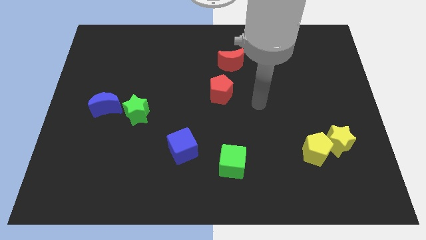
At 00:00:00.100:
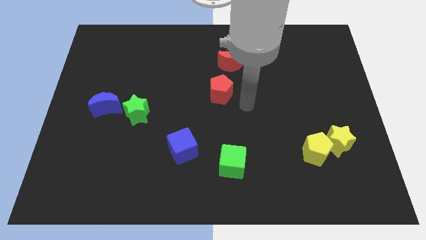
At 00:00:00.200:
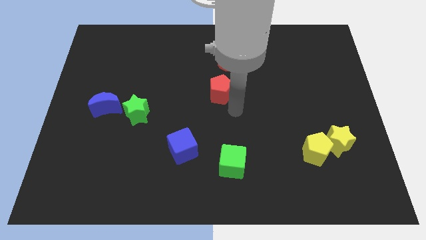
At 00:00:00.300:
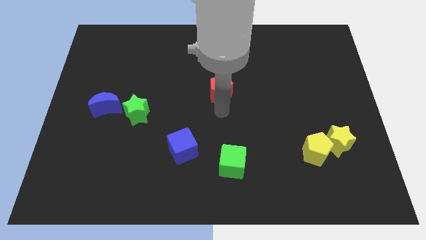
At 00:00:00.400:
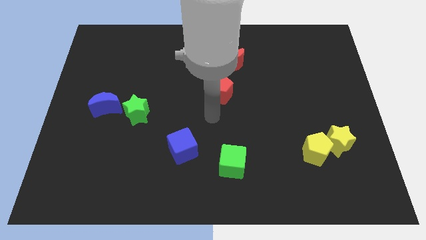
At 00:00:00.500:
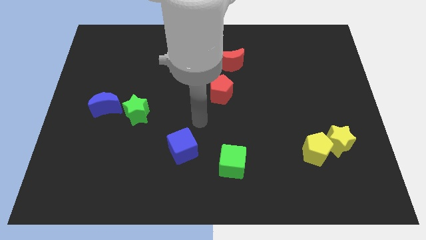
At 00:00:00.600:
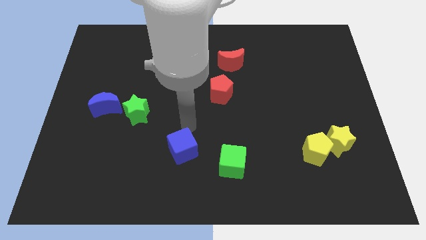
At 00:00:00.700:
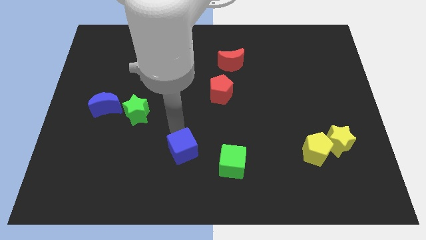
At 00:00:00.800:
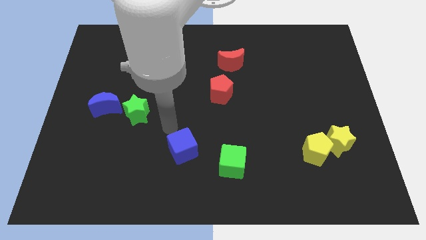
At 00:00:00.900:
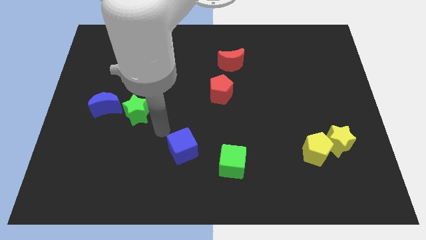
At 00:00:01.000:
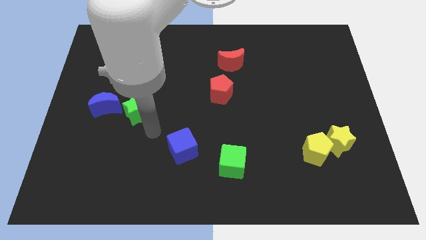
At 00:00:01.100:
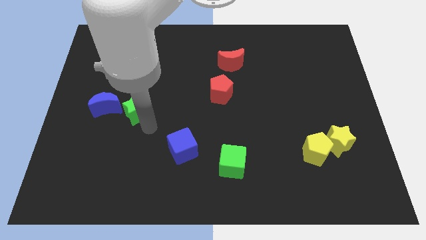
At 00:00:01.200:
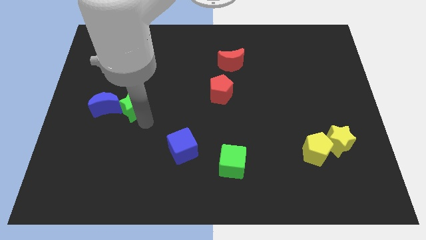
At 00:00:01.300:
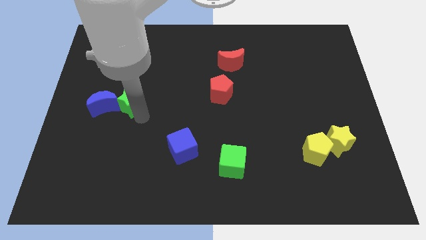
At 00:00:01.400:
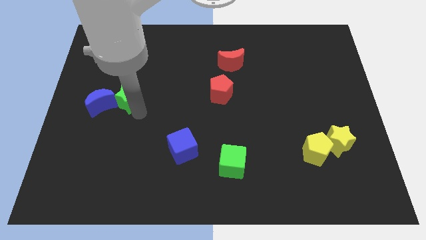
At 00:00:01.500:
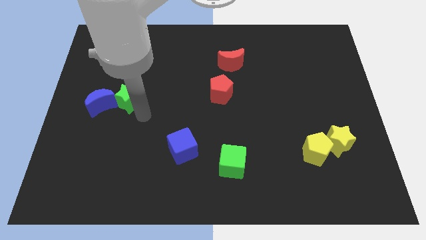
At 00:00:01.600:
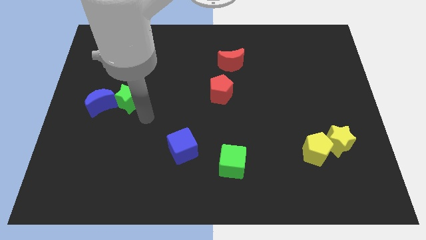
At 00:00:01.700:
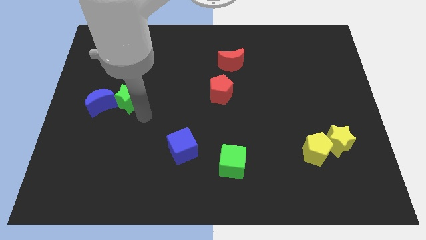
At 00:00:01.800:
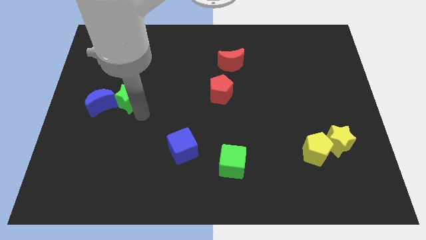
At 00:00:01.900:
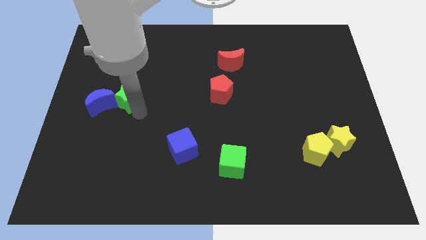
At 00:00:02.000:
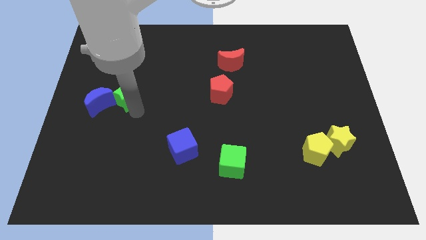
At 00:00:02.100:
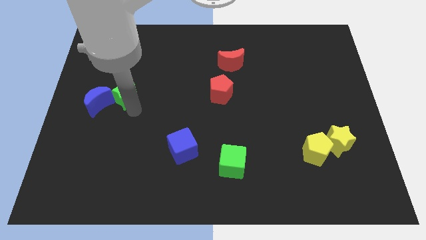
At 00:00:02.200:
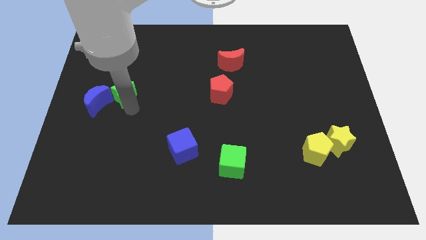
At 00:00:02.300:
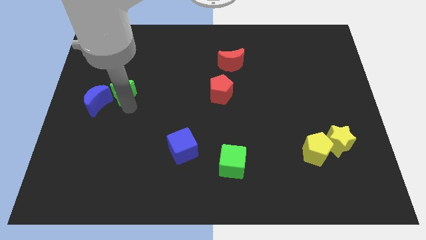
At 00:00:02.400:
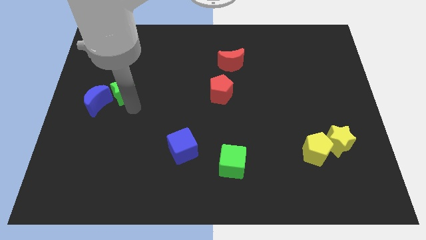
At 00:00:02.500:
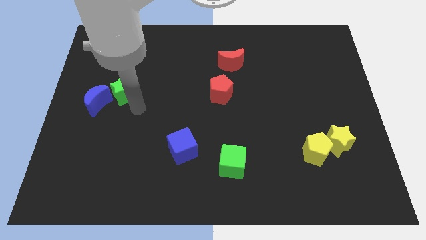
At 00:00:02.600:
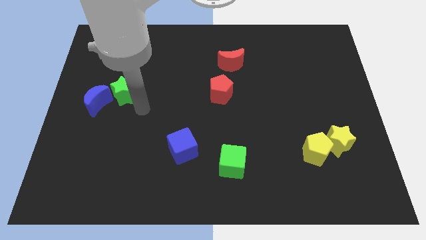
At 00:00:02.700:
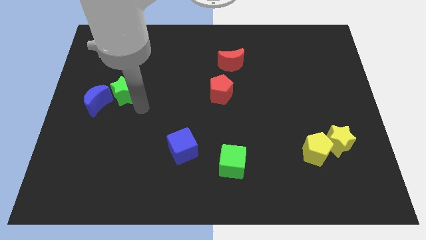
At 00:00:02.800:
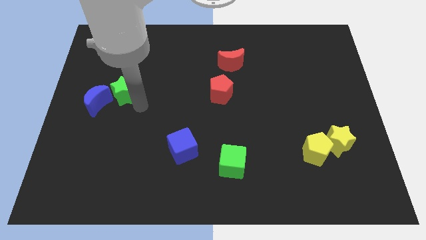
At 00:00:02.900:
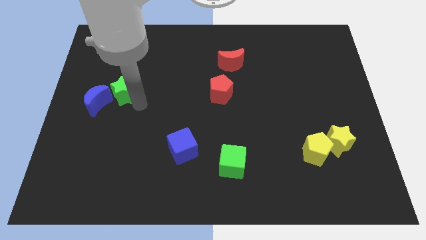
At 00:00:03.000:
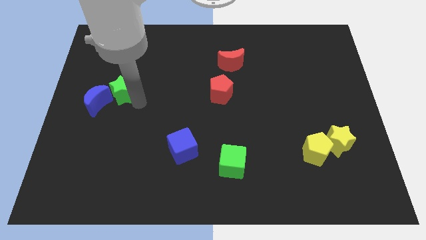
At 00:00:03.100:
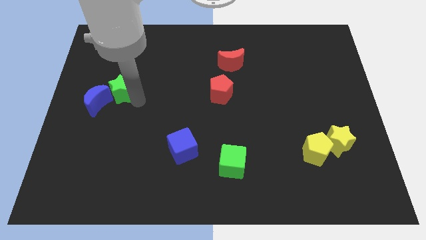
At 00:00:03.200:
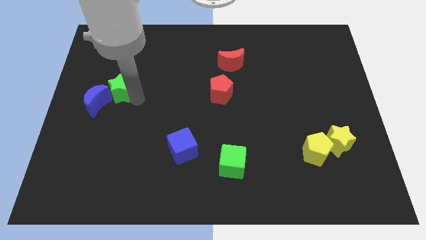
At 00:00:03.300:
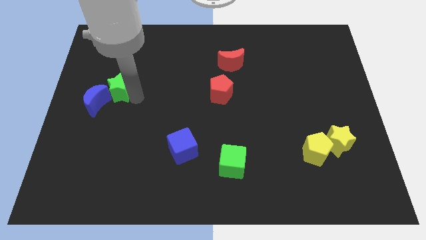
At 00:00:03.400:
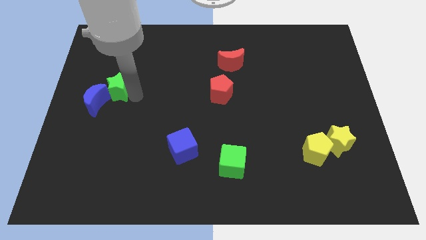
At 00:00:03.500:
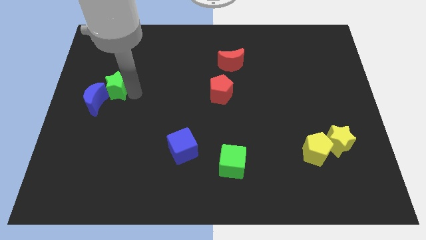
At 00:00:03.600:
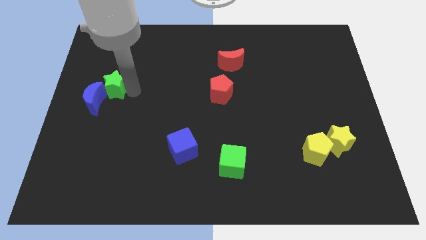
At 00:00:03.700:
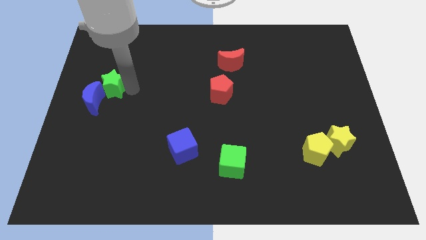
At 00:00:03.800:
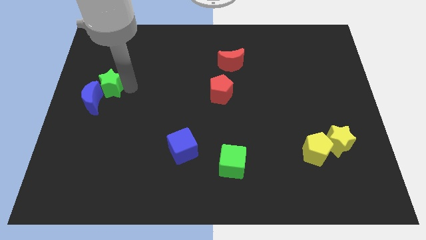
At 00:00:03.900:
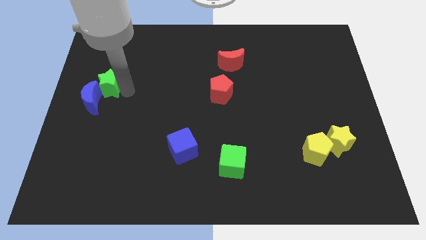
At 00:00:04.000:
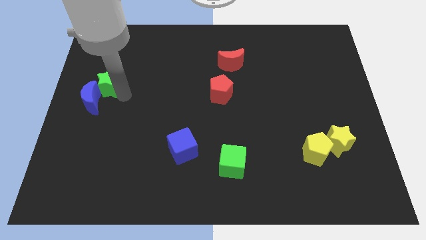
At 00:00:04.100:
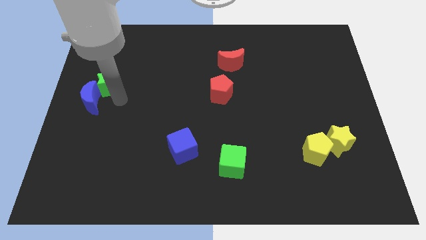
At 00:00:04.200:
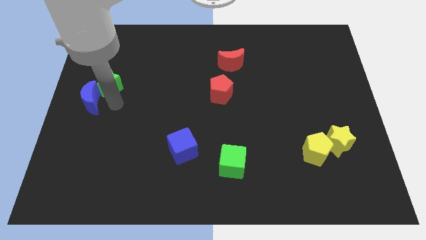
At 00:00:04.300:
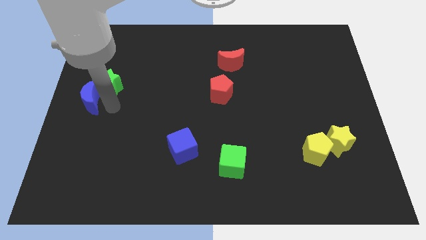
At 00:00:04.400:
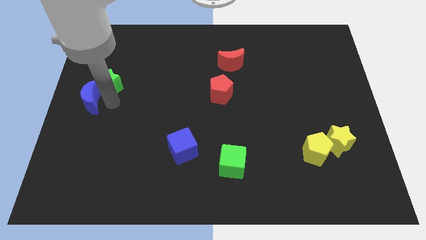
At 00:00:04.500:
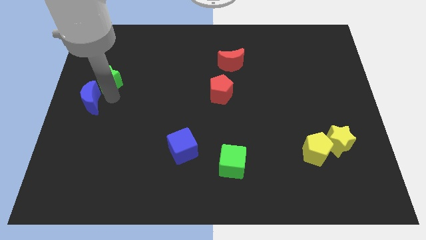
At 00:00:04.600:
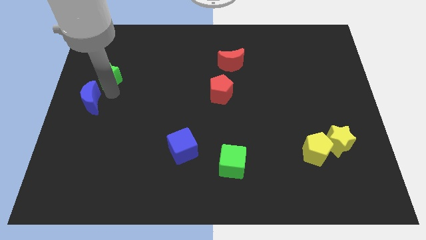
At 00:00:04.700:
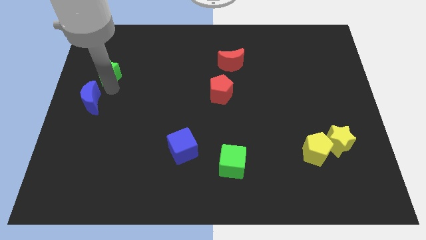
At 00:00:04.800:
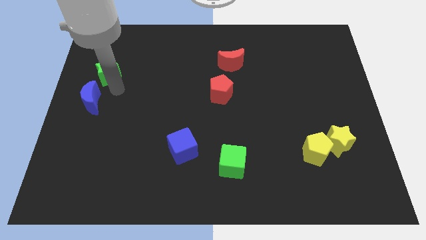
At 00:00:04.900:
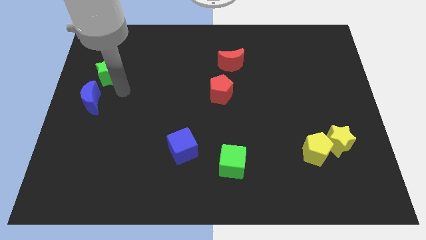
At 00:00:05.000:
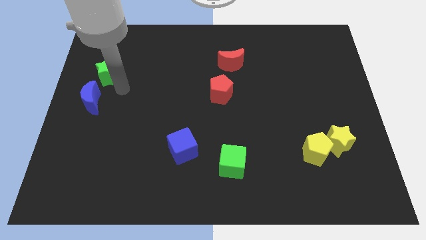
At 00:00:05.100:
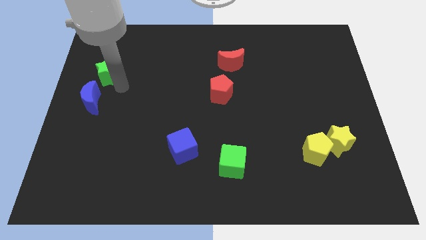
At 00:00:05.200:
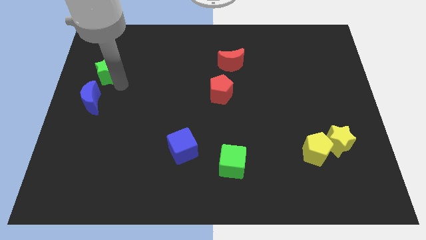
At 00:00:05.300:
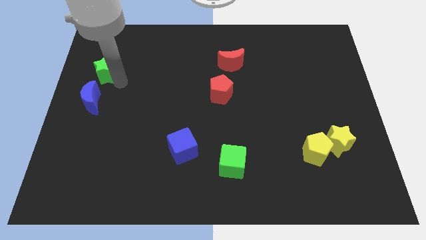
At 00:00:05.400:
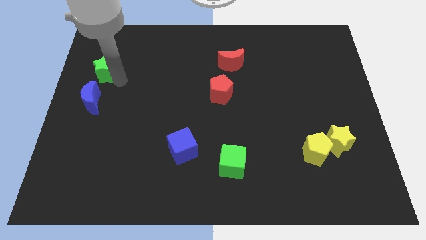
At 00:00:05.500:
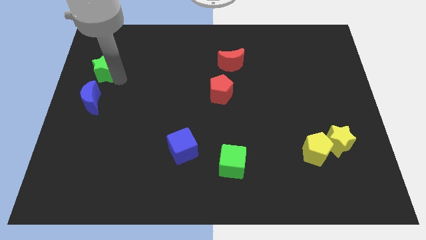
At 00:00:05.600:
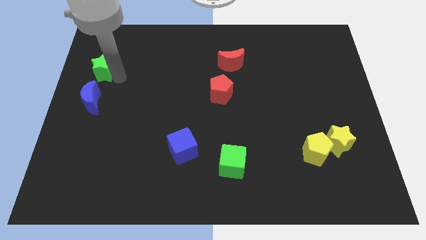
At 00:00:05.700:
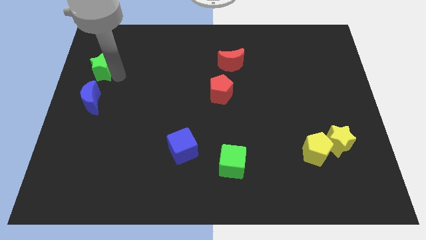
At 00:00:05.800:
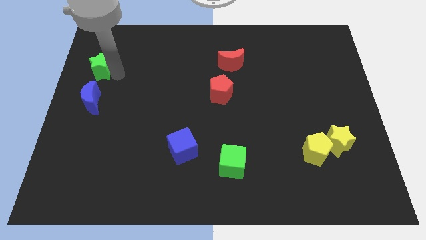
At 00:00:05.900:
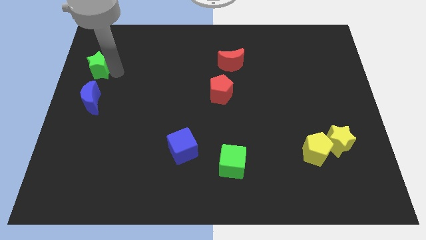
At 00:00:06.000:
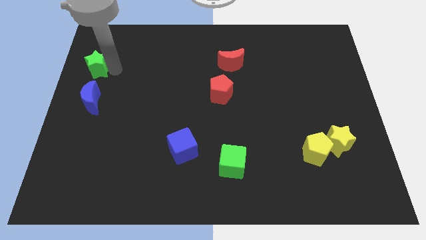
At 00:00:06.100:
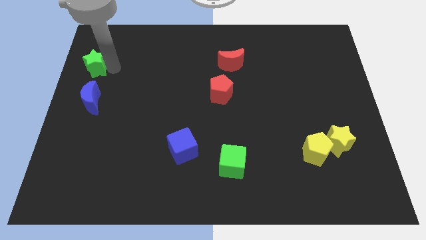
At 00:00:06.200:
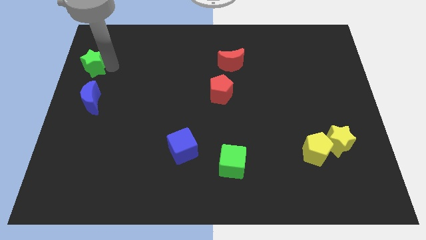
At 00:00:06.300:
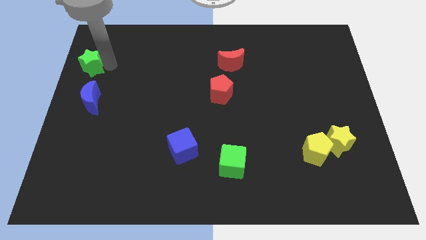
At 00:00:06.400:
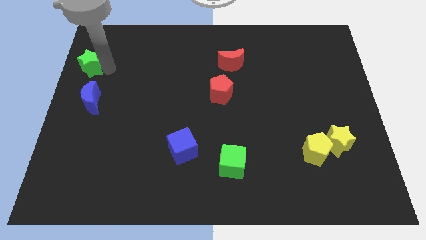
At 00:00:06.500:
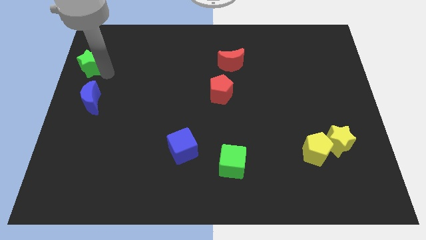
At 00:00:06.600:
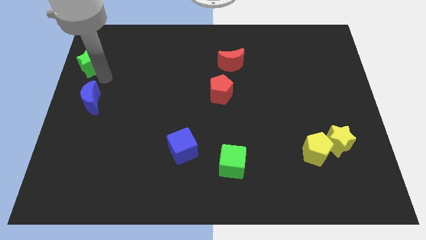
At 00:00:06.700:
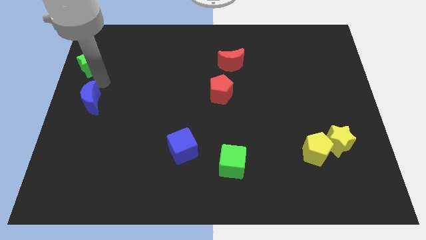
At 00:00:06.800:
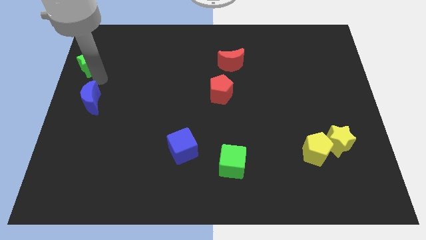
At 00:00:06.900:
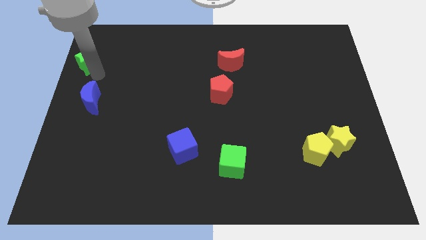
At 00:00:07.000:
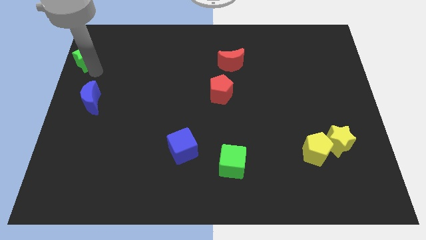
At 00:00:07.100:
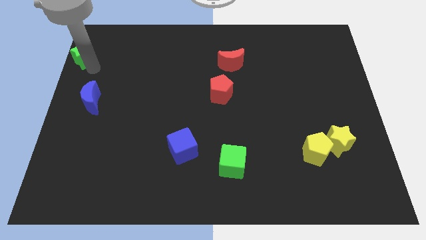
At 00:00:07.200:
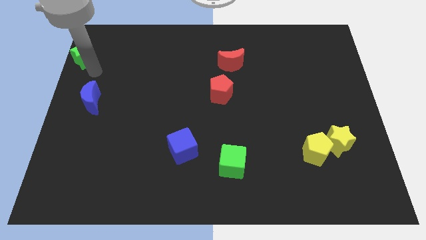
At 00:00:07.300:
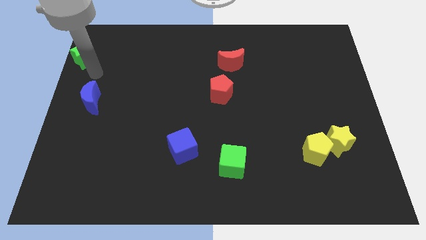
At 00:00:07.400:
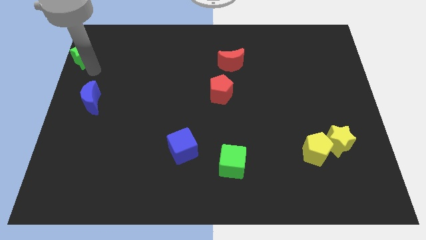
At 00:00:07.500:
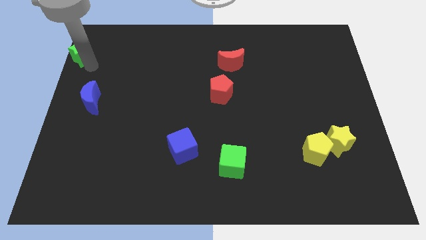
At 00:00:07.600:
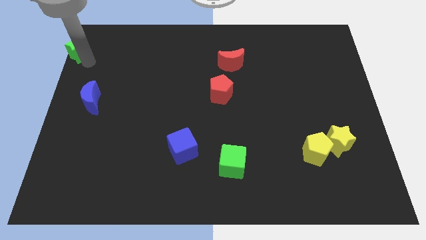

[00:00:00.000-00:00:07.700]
put the green star to the top left

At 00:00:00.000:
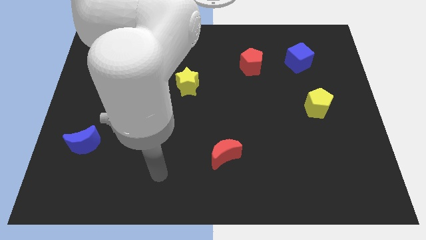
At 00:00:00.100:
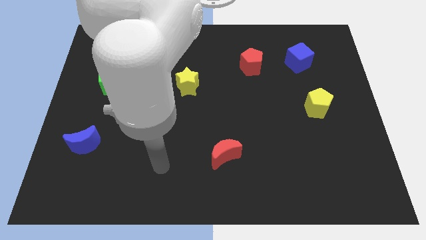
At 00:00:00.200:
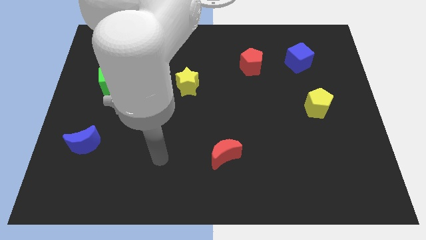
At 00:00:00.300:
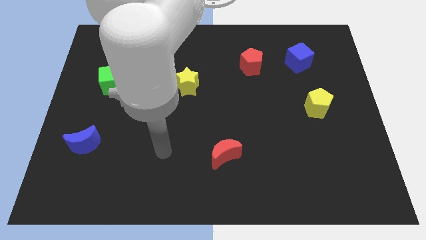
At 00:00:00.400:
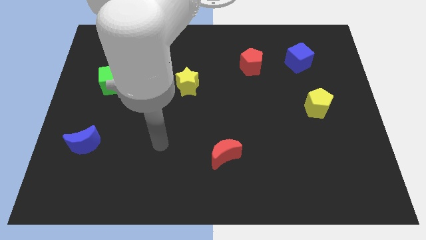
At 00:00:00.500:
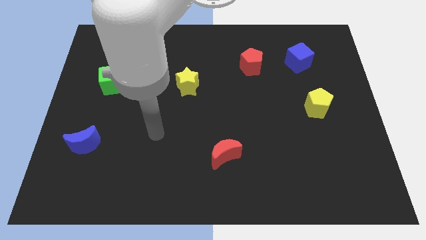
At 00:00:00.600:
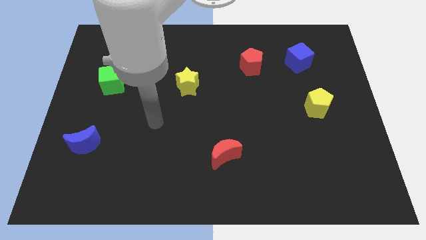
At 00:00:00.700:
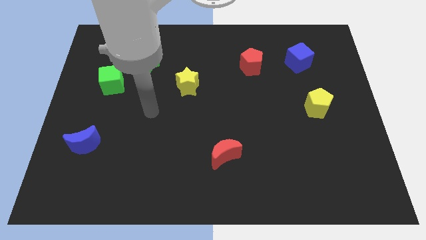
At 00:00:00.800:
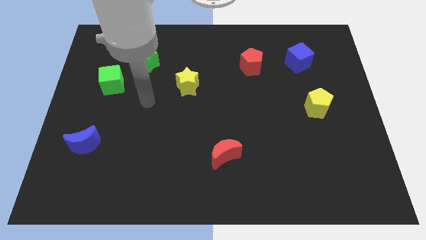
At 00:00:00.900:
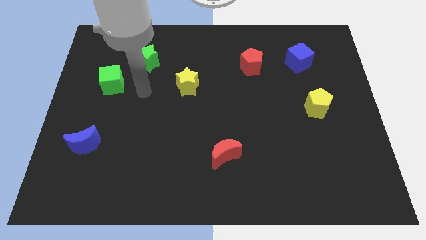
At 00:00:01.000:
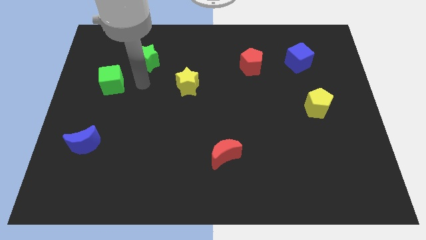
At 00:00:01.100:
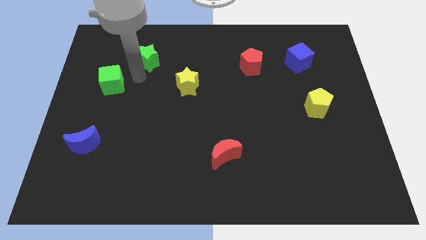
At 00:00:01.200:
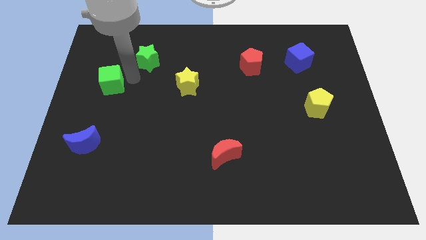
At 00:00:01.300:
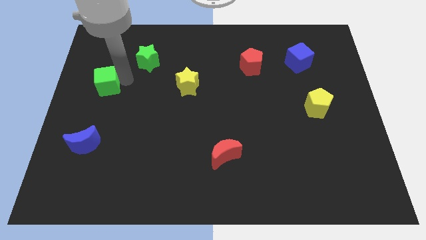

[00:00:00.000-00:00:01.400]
slide the green cube to the center left
